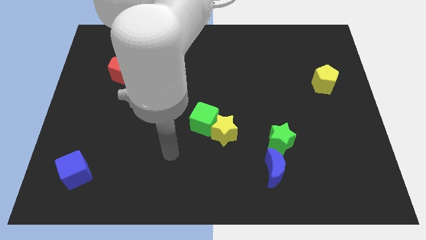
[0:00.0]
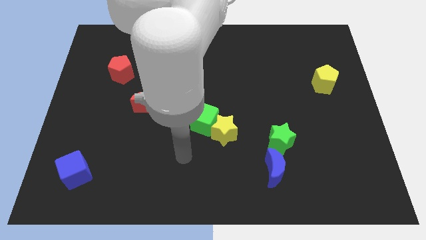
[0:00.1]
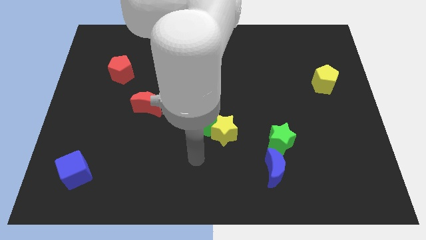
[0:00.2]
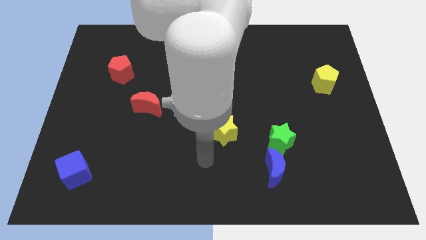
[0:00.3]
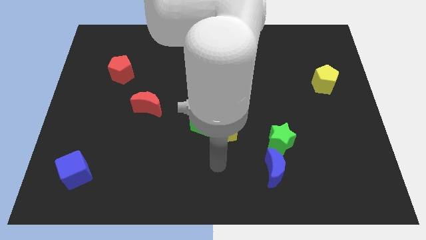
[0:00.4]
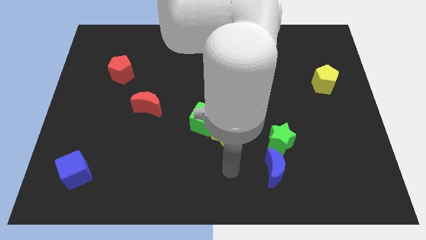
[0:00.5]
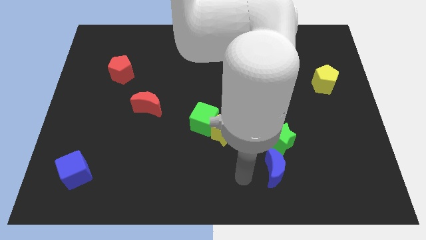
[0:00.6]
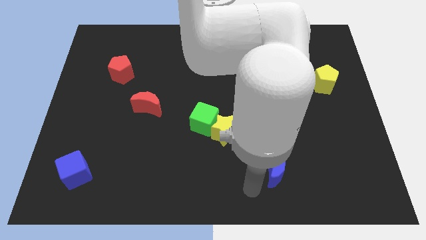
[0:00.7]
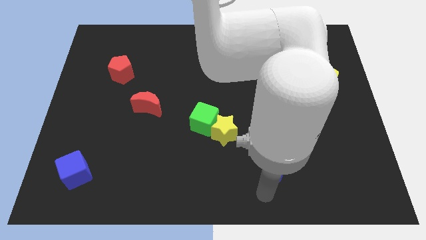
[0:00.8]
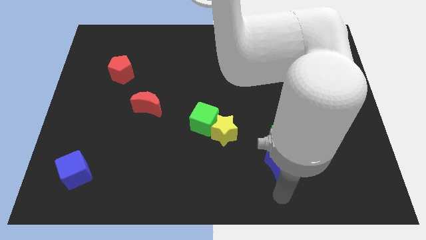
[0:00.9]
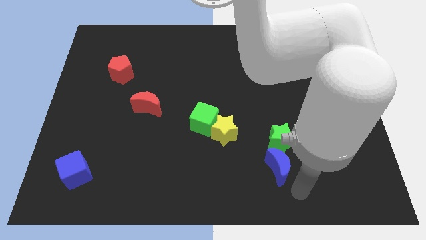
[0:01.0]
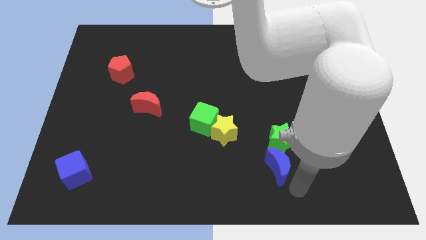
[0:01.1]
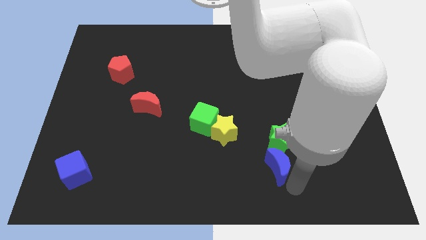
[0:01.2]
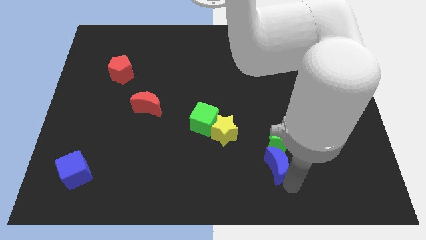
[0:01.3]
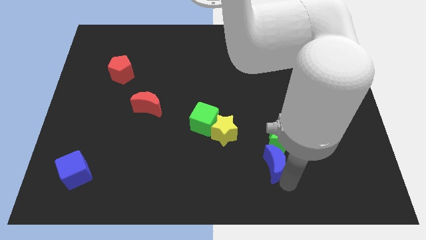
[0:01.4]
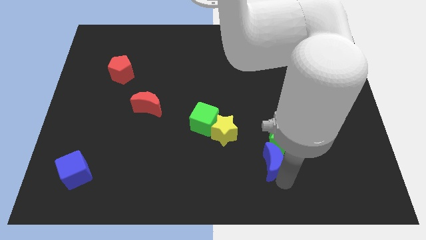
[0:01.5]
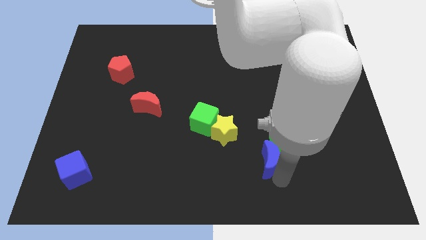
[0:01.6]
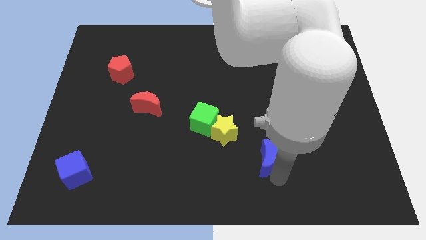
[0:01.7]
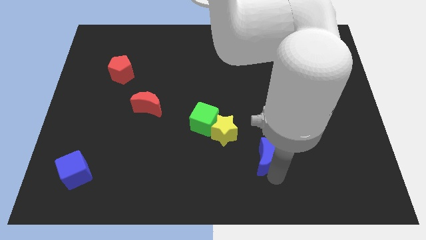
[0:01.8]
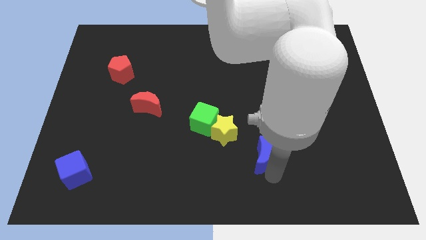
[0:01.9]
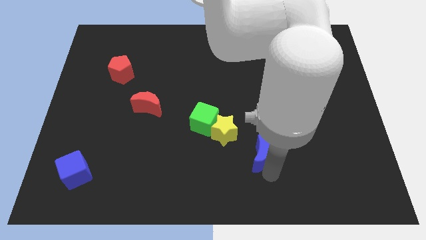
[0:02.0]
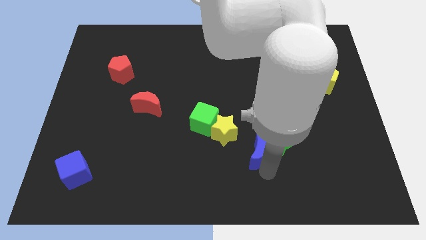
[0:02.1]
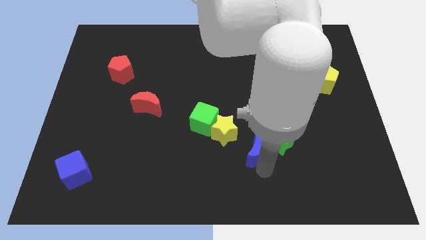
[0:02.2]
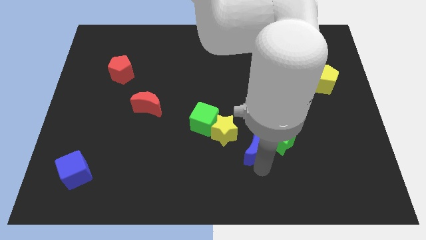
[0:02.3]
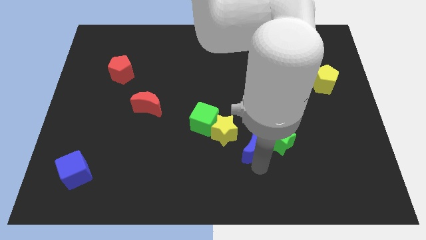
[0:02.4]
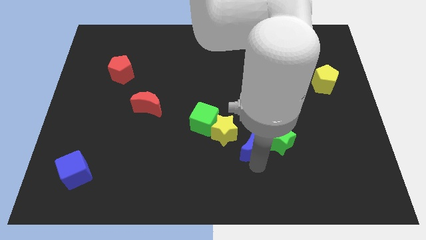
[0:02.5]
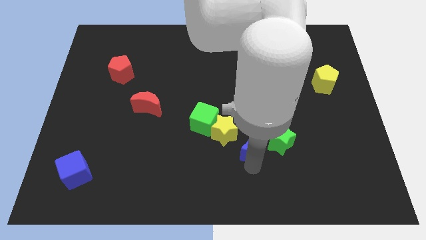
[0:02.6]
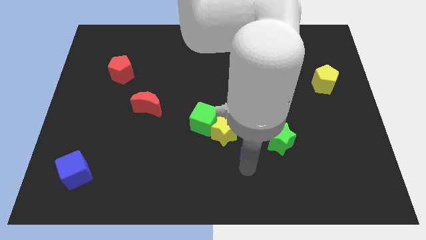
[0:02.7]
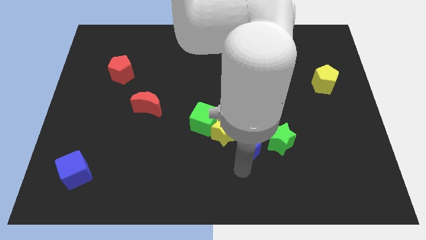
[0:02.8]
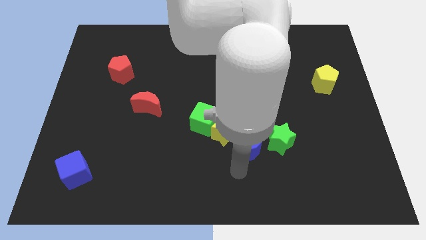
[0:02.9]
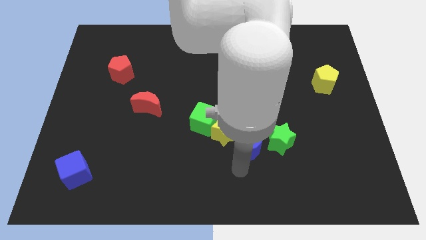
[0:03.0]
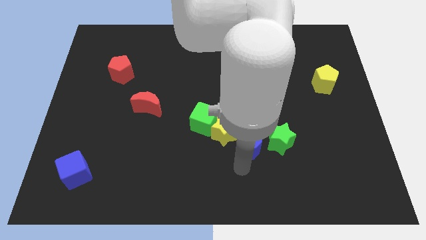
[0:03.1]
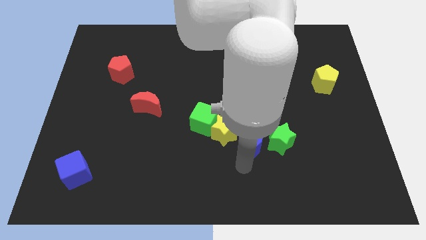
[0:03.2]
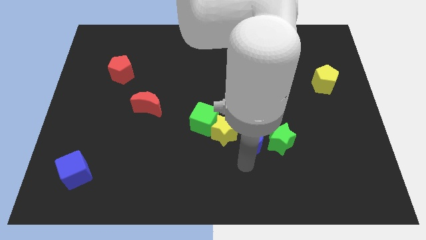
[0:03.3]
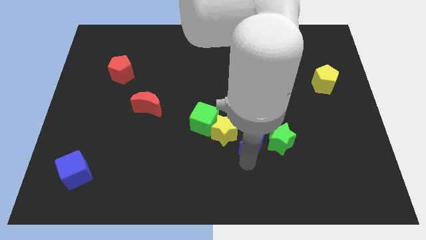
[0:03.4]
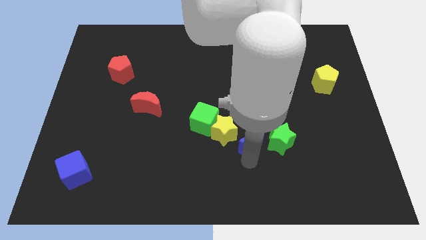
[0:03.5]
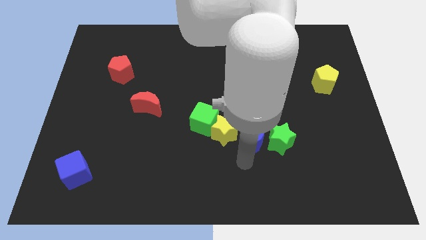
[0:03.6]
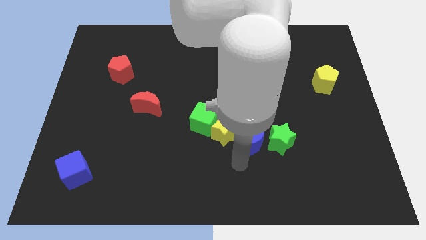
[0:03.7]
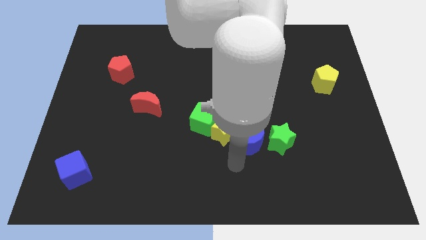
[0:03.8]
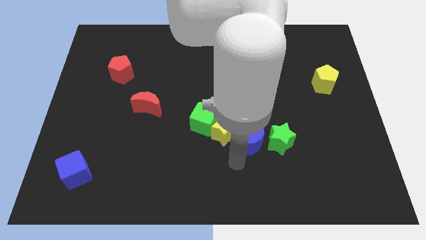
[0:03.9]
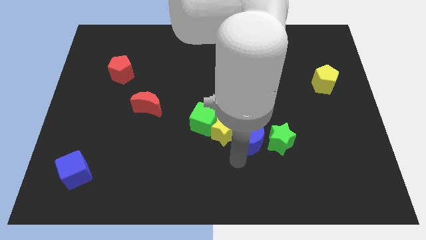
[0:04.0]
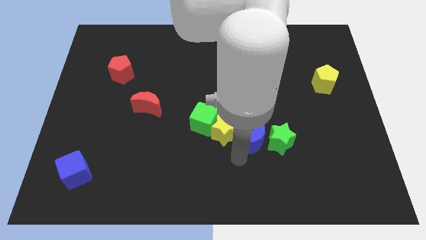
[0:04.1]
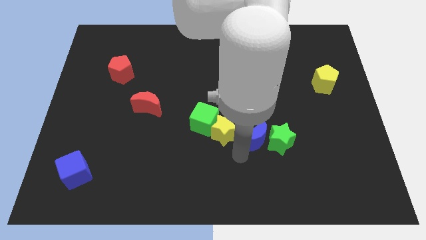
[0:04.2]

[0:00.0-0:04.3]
slightly push the blue moon up

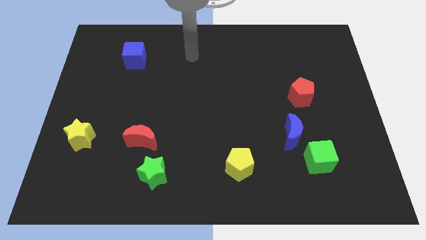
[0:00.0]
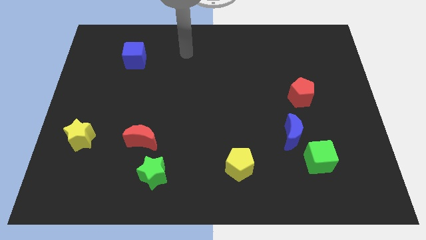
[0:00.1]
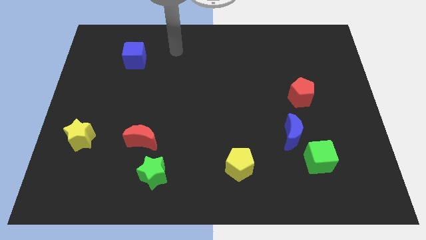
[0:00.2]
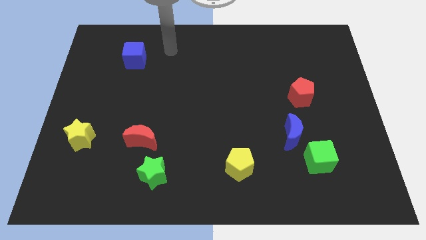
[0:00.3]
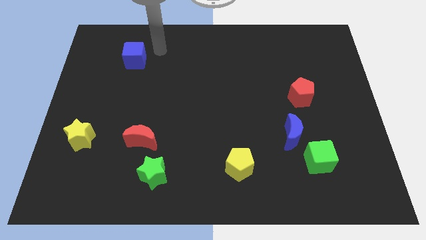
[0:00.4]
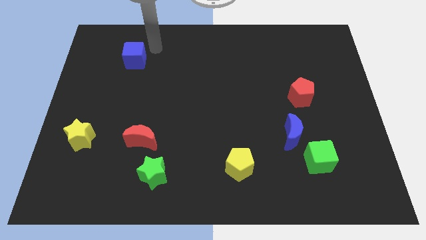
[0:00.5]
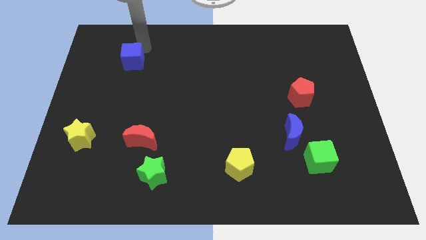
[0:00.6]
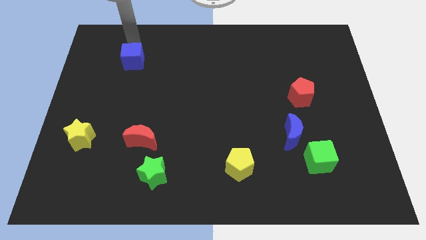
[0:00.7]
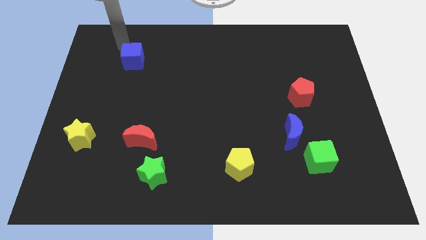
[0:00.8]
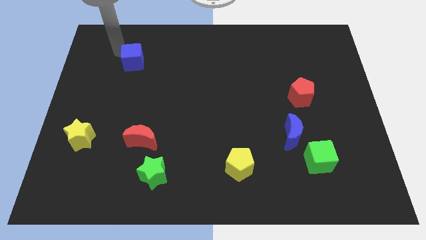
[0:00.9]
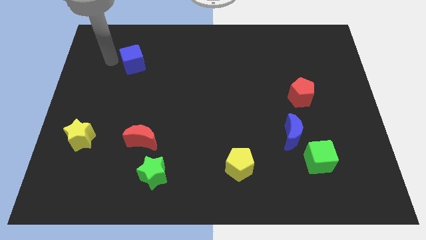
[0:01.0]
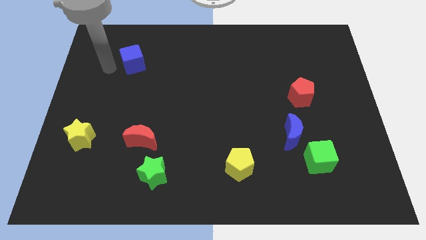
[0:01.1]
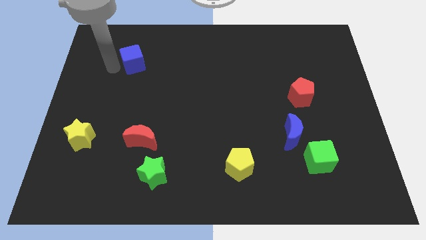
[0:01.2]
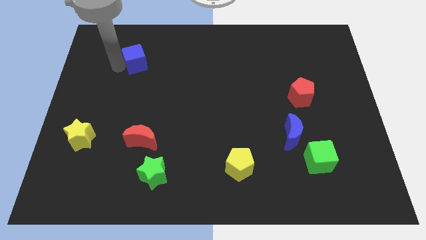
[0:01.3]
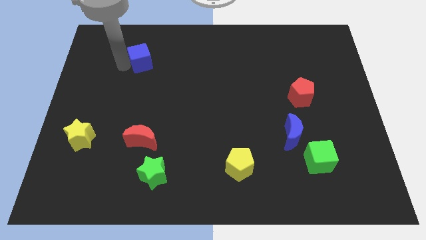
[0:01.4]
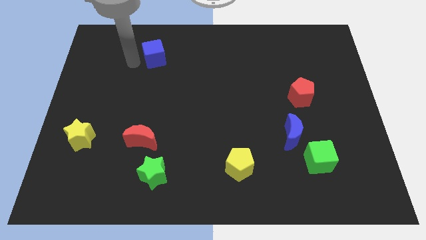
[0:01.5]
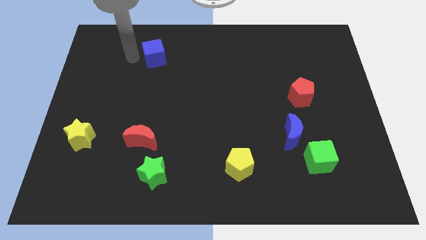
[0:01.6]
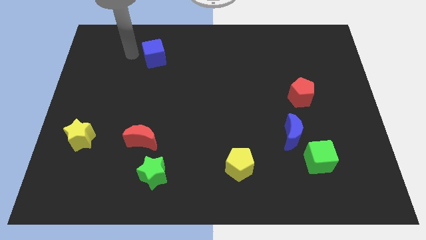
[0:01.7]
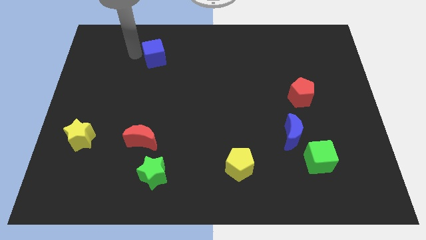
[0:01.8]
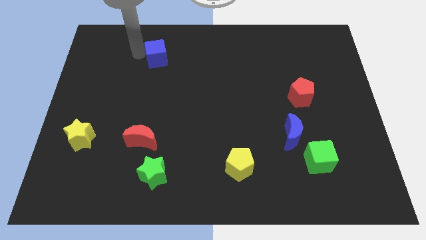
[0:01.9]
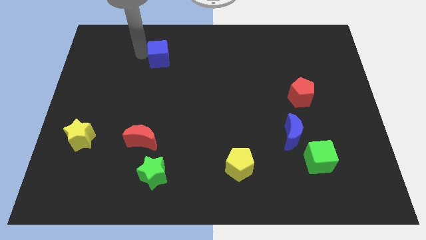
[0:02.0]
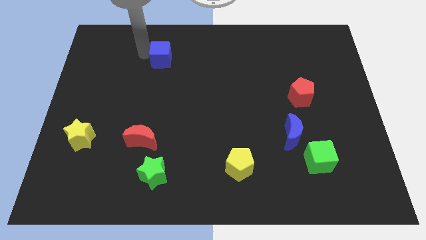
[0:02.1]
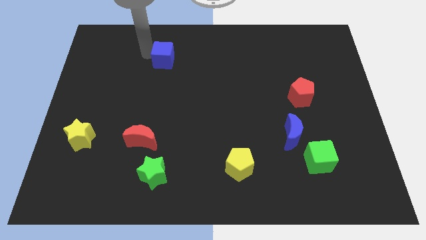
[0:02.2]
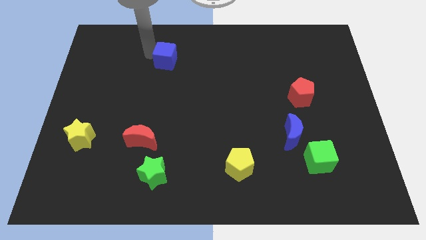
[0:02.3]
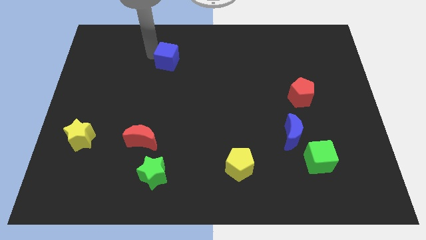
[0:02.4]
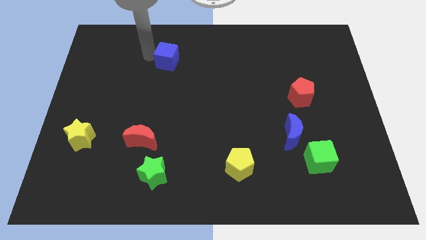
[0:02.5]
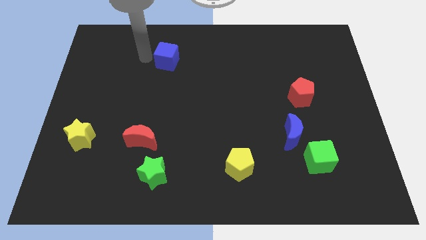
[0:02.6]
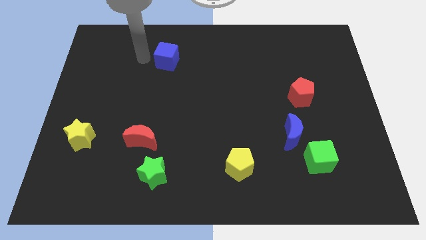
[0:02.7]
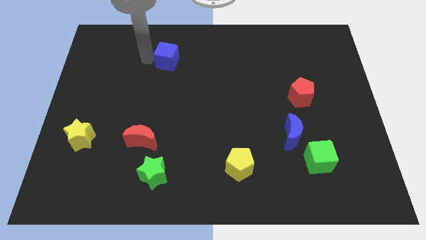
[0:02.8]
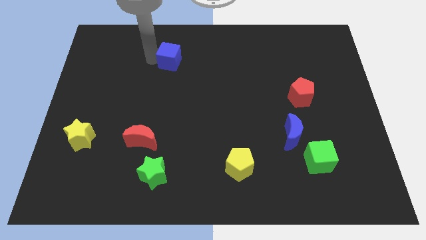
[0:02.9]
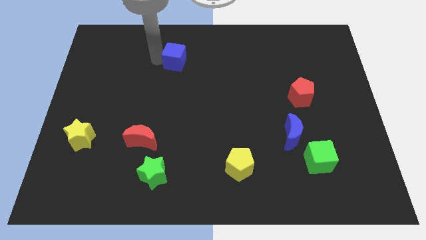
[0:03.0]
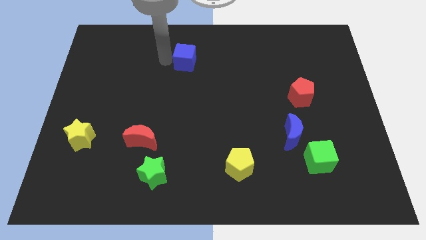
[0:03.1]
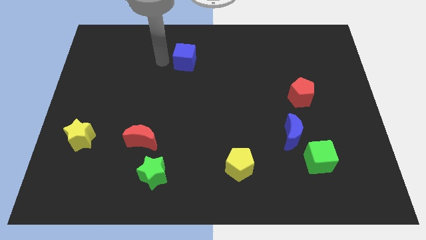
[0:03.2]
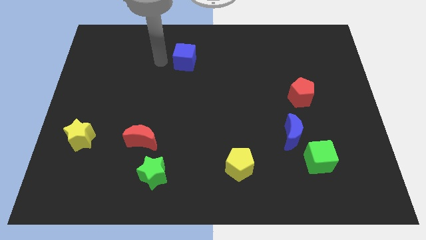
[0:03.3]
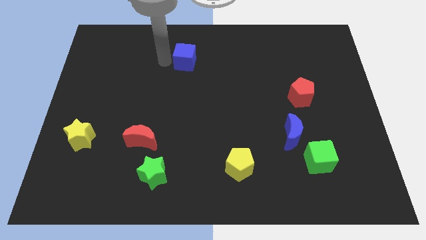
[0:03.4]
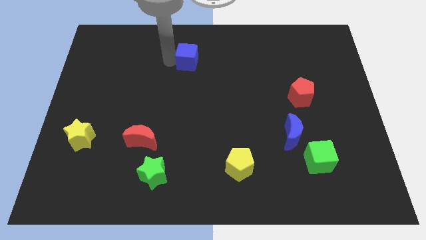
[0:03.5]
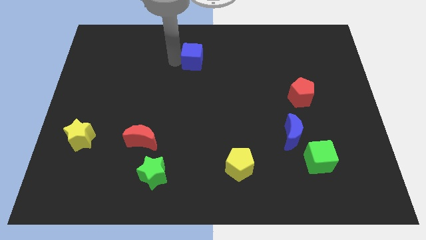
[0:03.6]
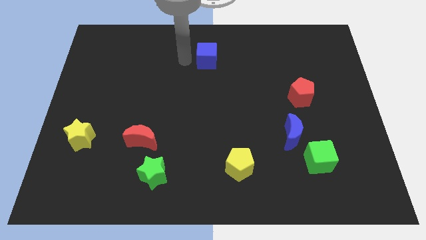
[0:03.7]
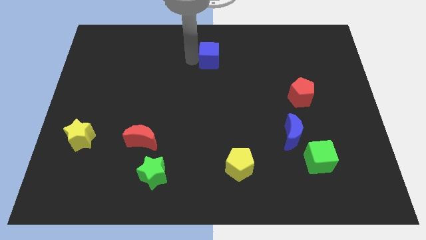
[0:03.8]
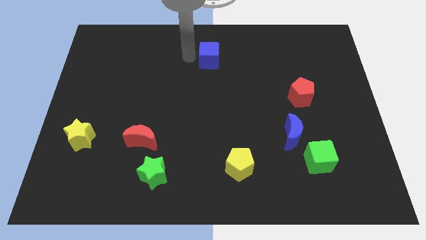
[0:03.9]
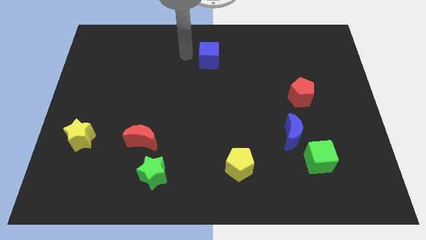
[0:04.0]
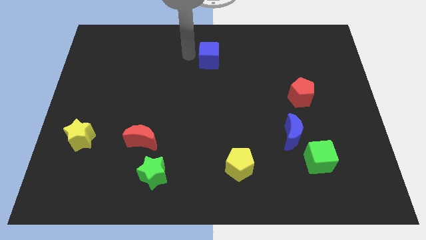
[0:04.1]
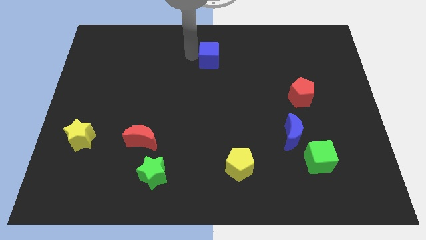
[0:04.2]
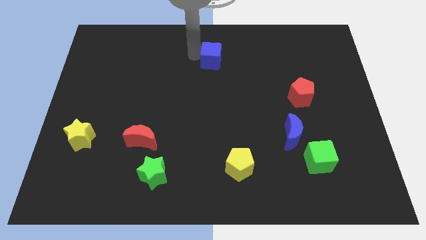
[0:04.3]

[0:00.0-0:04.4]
move the blue cube right
